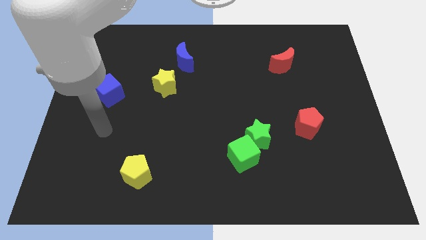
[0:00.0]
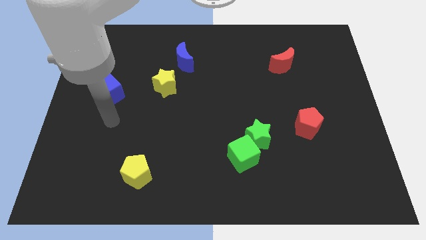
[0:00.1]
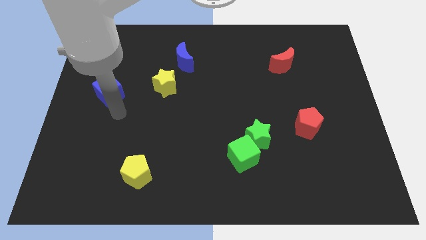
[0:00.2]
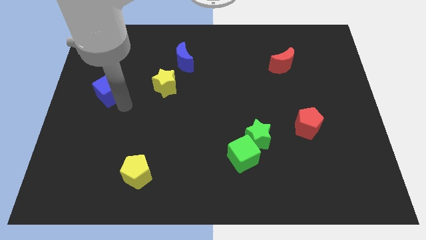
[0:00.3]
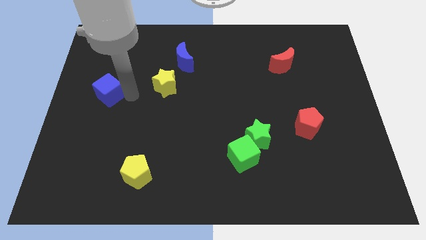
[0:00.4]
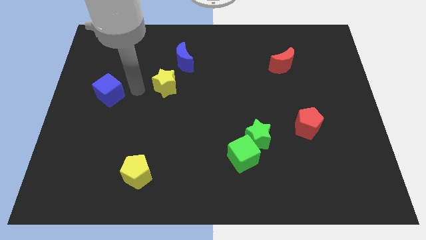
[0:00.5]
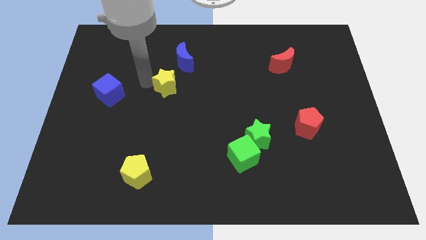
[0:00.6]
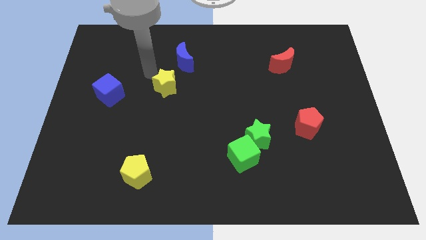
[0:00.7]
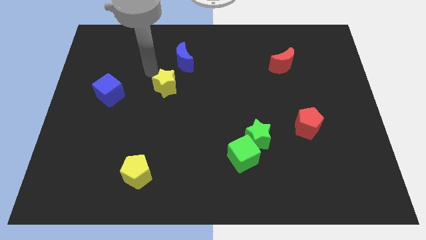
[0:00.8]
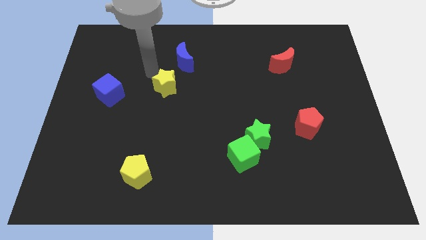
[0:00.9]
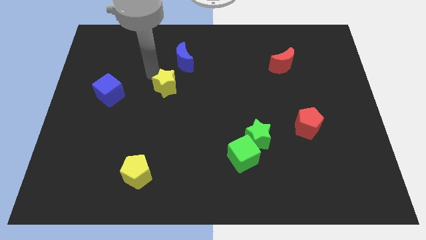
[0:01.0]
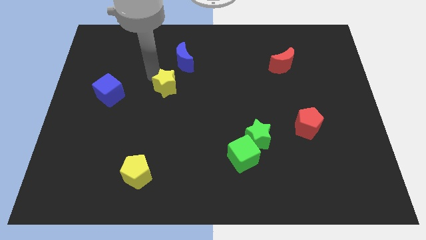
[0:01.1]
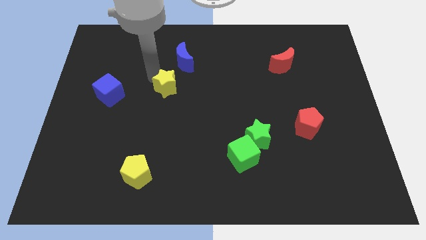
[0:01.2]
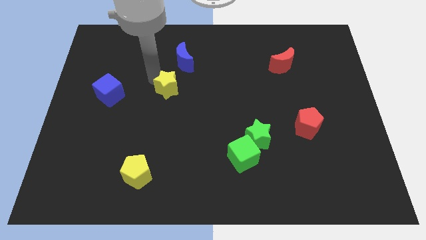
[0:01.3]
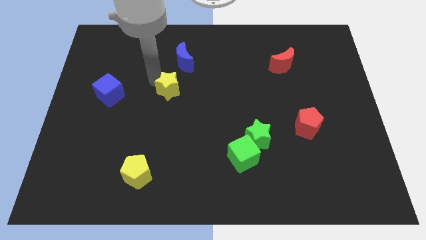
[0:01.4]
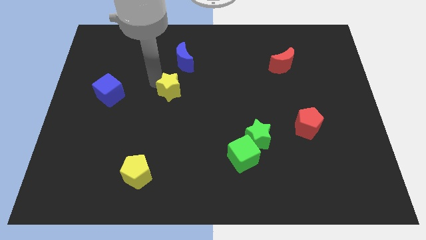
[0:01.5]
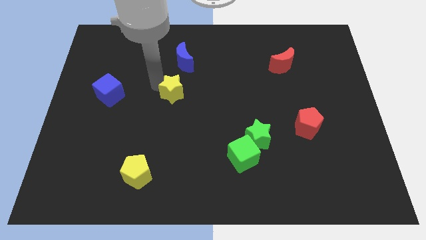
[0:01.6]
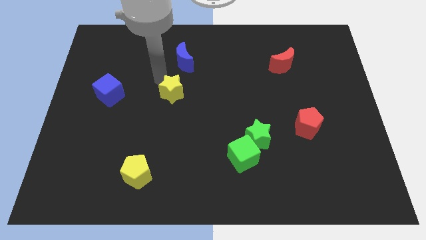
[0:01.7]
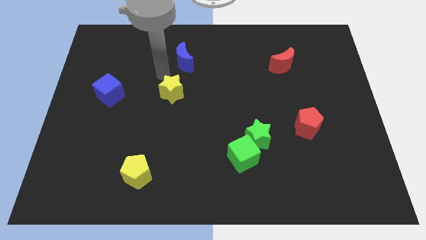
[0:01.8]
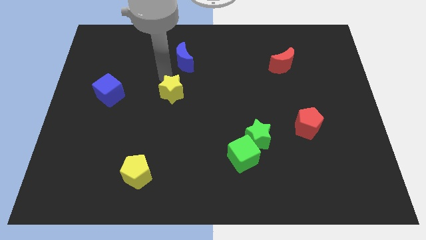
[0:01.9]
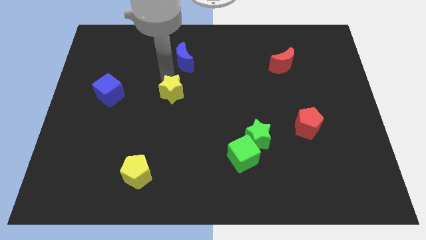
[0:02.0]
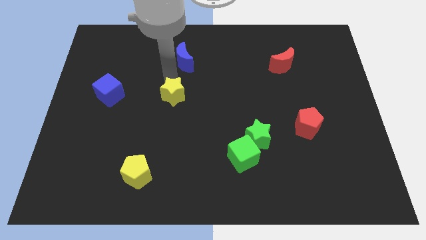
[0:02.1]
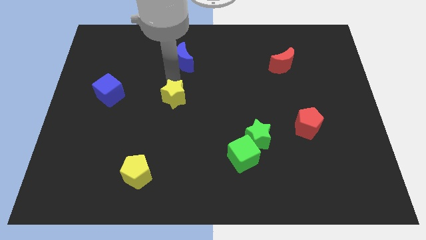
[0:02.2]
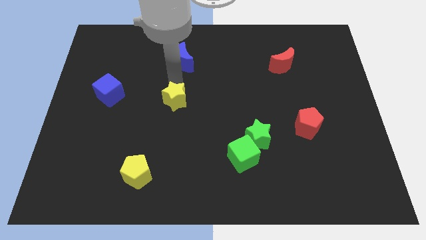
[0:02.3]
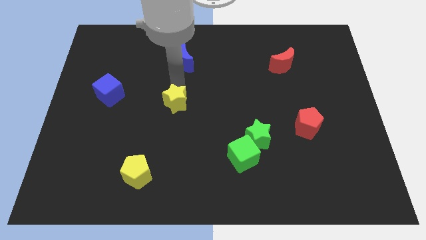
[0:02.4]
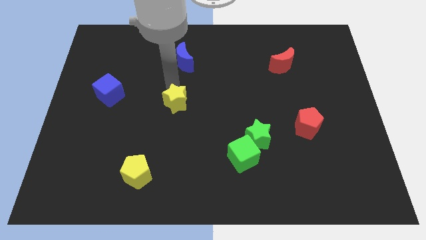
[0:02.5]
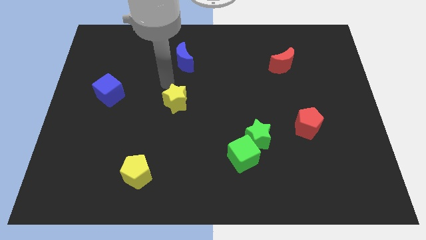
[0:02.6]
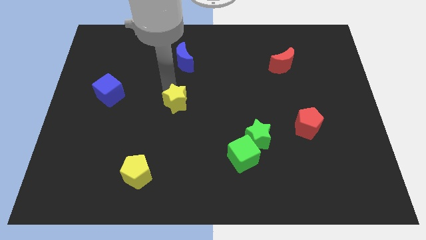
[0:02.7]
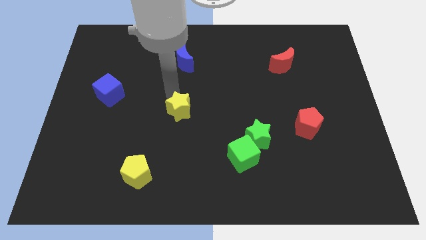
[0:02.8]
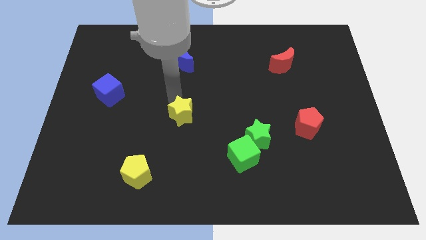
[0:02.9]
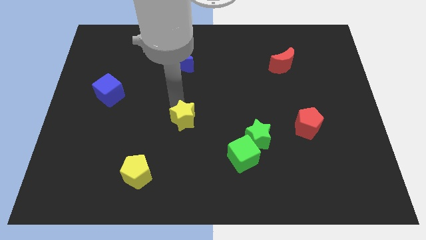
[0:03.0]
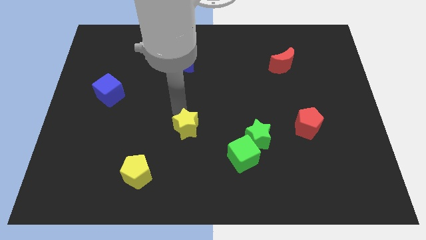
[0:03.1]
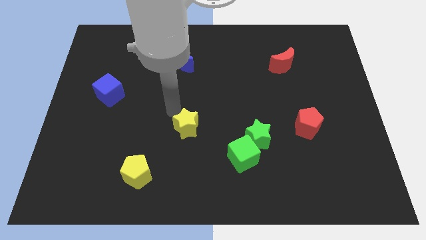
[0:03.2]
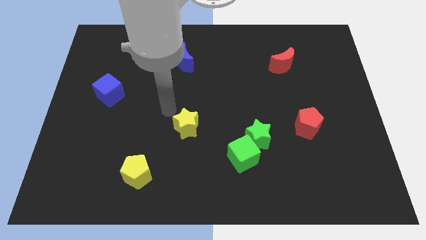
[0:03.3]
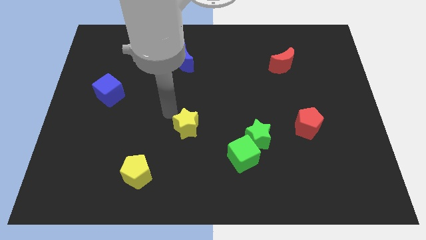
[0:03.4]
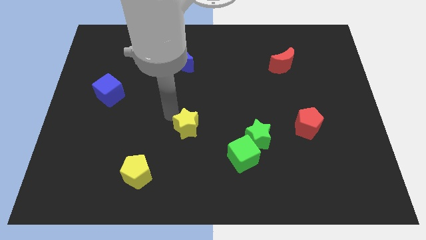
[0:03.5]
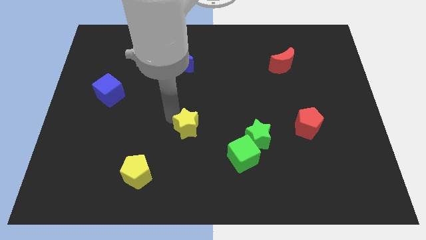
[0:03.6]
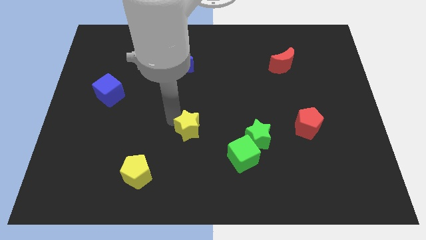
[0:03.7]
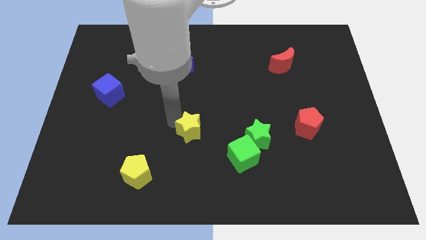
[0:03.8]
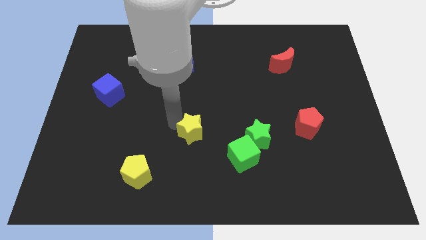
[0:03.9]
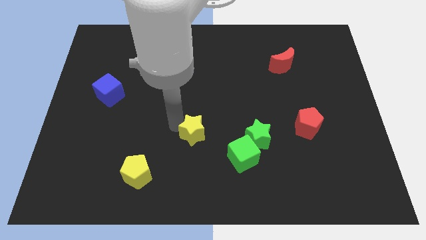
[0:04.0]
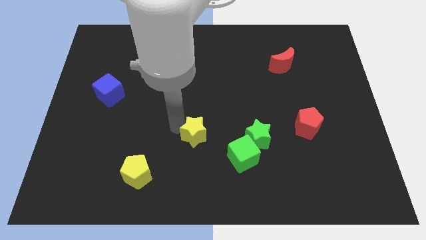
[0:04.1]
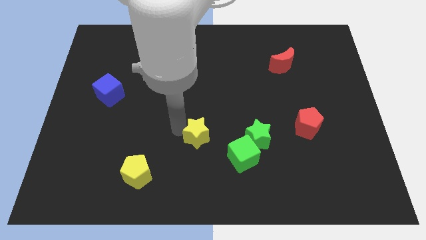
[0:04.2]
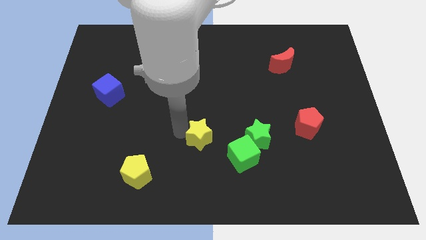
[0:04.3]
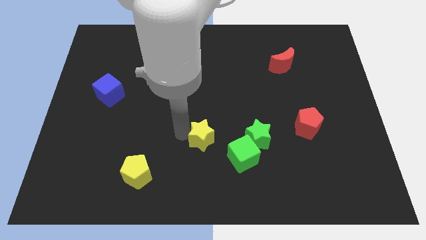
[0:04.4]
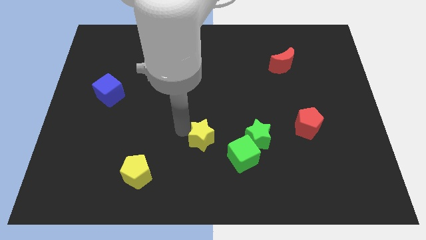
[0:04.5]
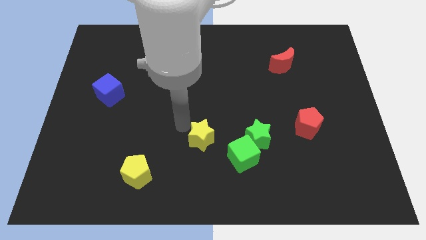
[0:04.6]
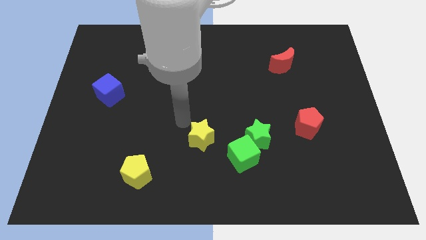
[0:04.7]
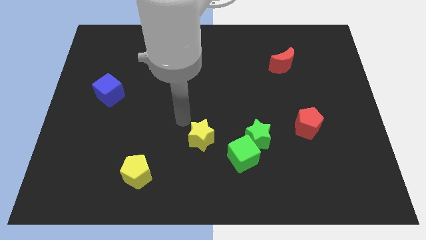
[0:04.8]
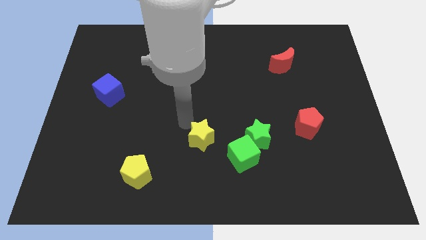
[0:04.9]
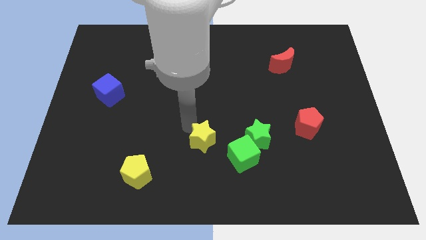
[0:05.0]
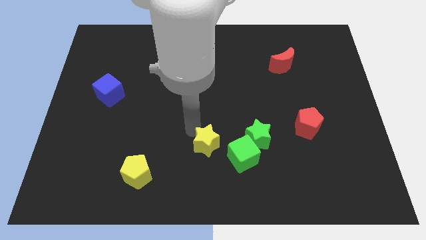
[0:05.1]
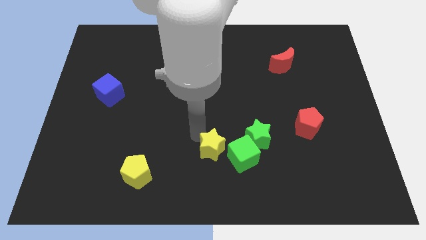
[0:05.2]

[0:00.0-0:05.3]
slide the yellow star down and right diagonally

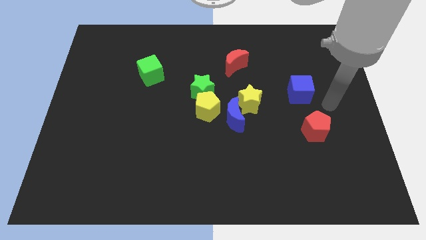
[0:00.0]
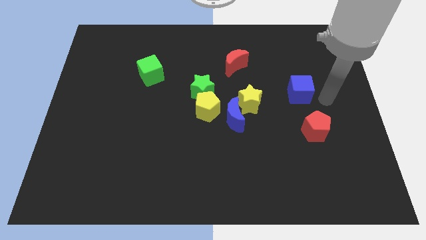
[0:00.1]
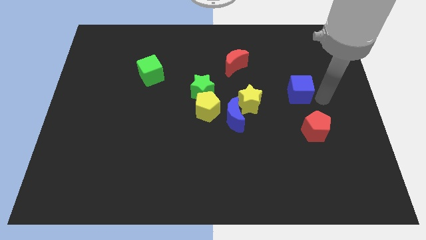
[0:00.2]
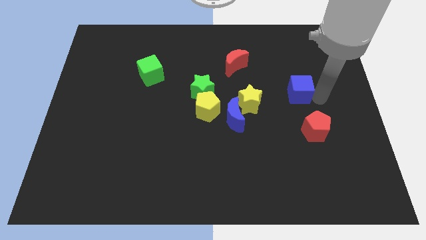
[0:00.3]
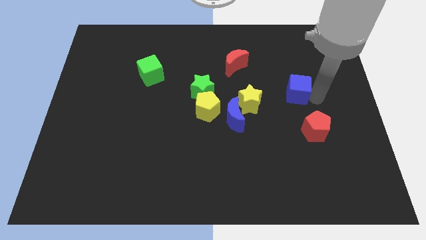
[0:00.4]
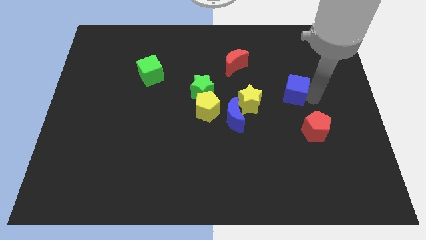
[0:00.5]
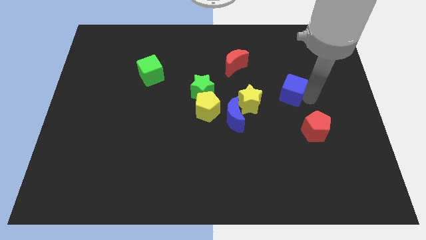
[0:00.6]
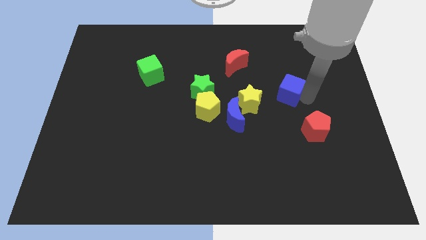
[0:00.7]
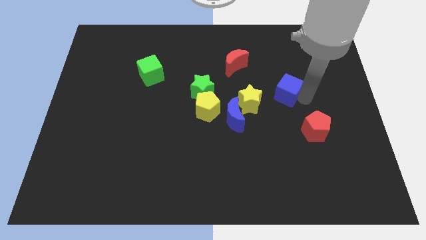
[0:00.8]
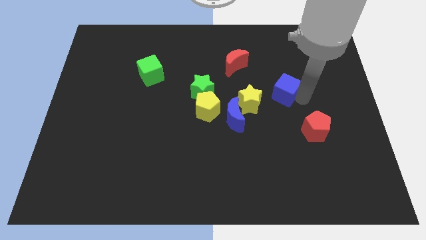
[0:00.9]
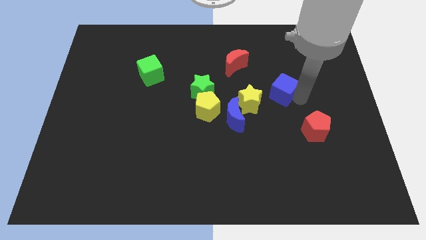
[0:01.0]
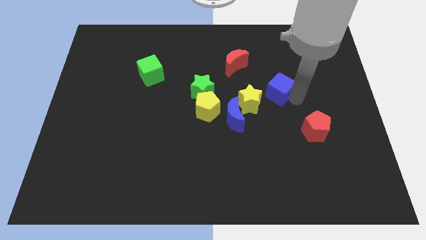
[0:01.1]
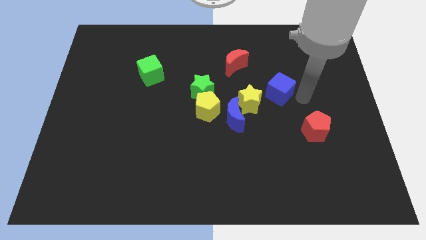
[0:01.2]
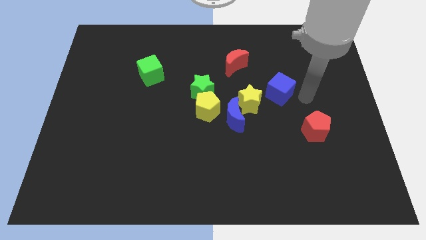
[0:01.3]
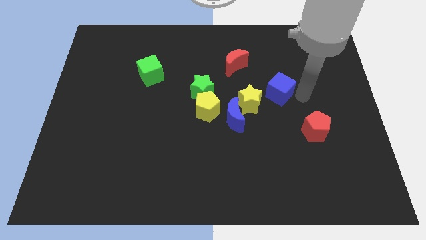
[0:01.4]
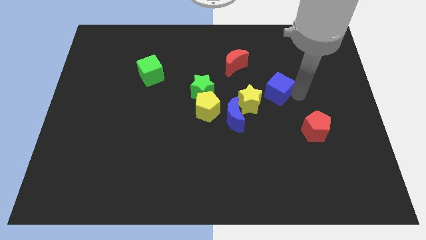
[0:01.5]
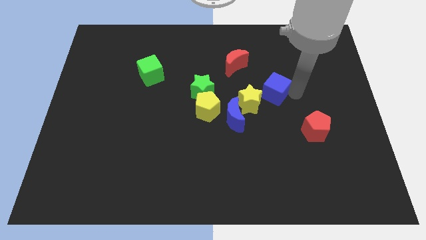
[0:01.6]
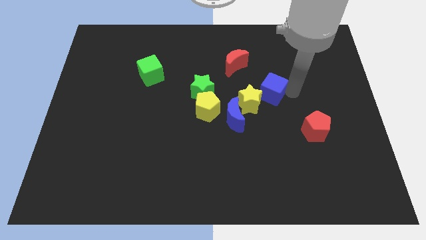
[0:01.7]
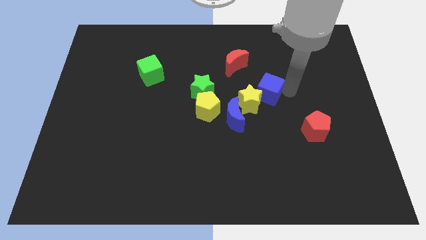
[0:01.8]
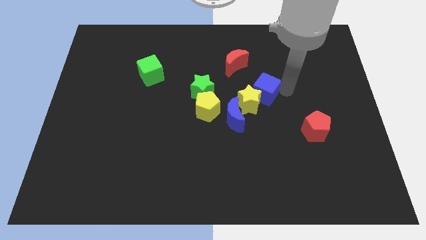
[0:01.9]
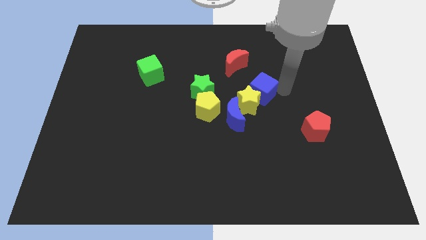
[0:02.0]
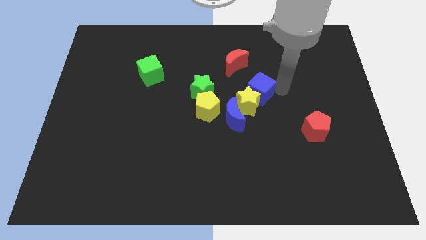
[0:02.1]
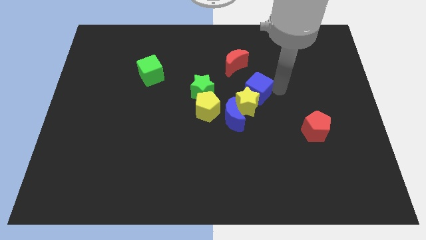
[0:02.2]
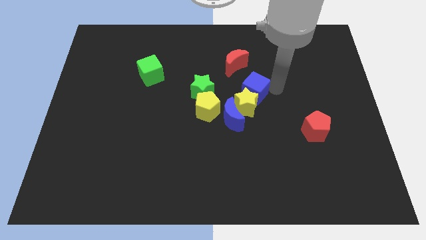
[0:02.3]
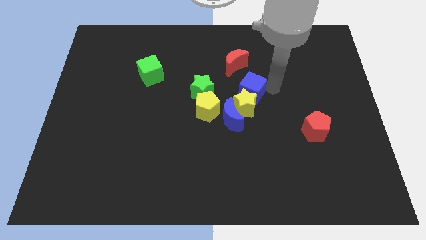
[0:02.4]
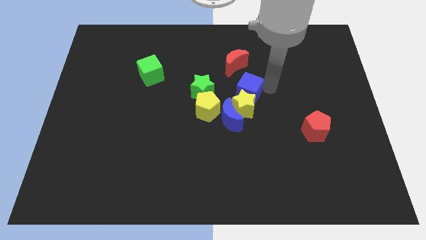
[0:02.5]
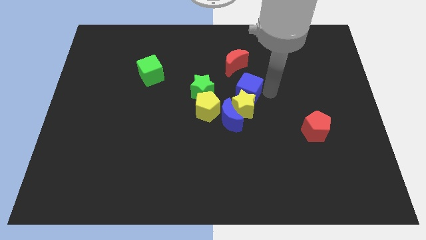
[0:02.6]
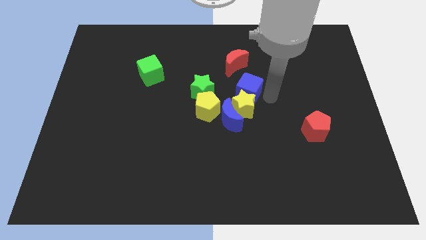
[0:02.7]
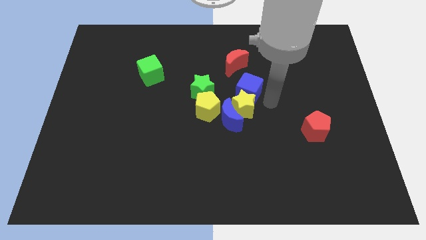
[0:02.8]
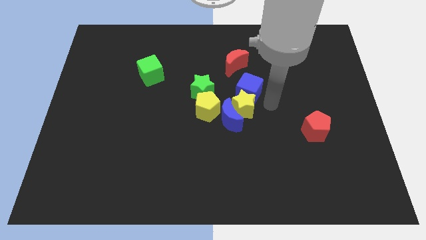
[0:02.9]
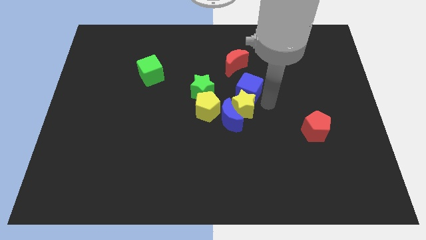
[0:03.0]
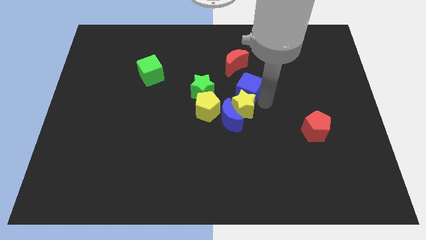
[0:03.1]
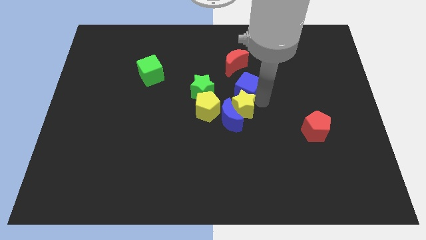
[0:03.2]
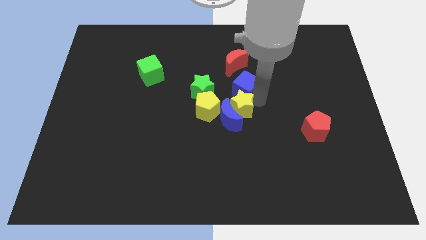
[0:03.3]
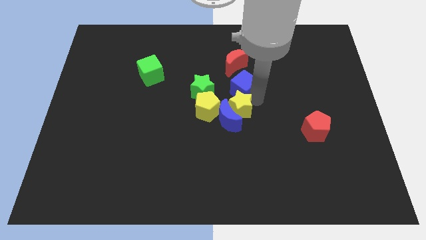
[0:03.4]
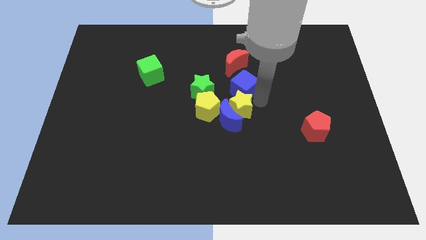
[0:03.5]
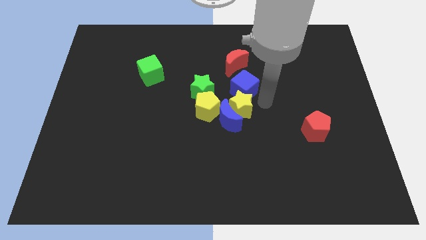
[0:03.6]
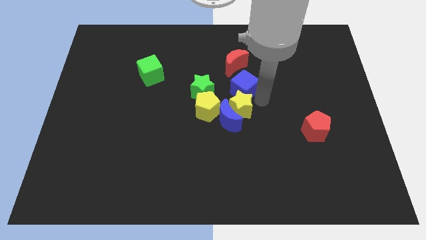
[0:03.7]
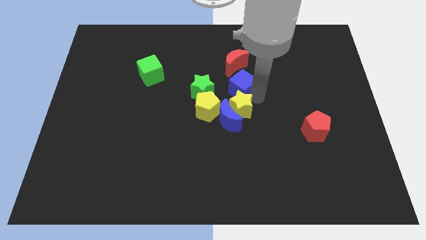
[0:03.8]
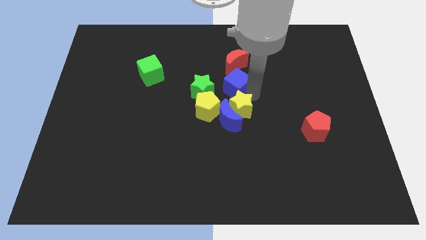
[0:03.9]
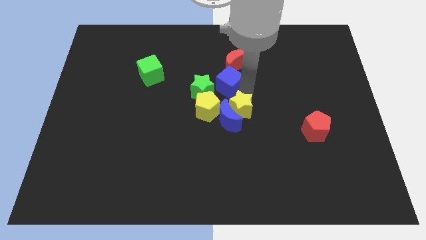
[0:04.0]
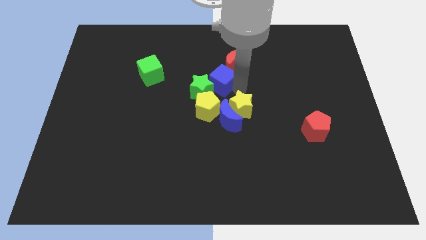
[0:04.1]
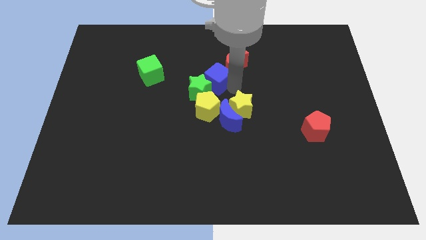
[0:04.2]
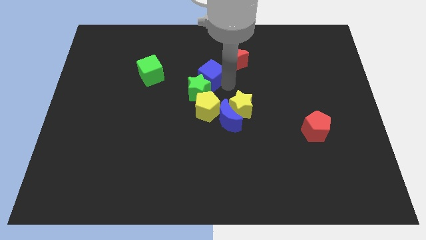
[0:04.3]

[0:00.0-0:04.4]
push the blue cube left
